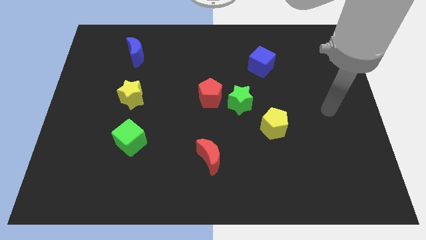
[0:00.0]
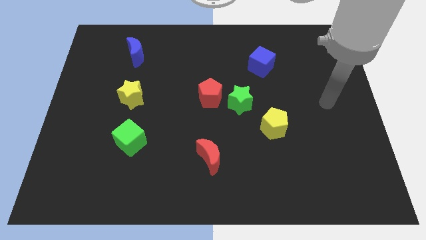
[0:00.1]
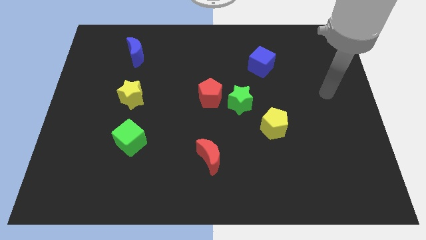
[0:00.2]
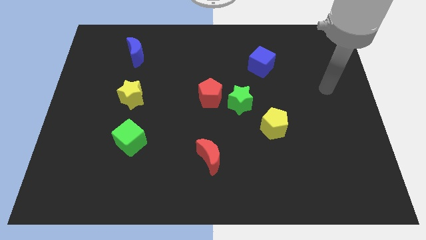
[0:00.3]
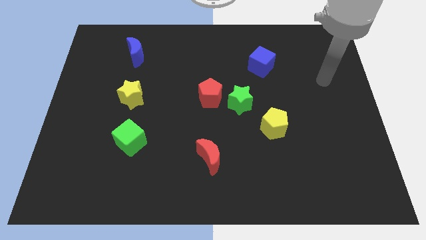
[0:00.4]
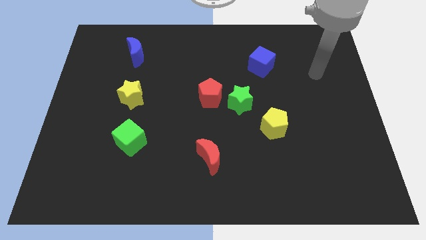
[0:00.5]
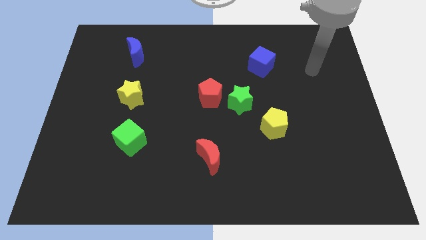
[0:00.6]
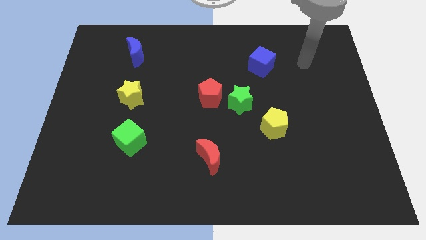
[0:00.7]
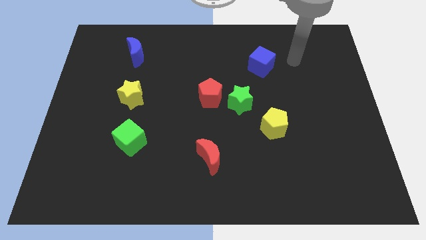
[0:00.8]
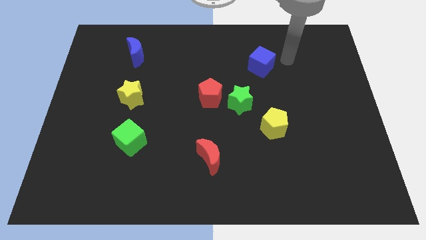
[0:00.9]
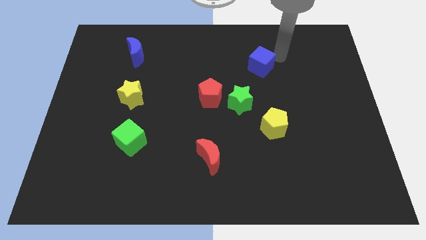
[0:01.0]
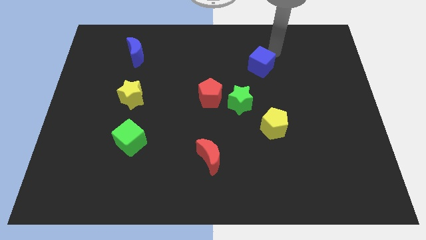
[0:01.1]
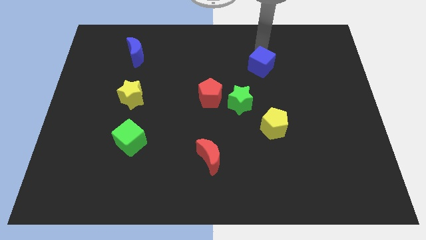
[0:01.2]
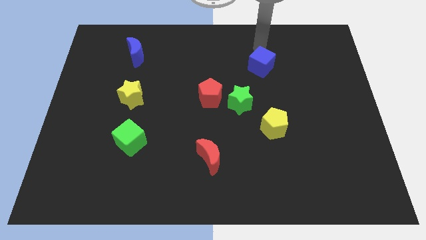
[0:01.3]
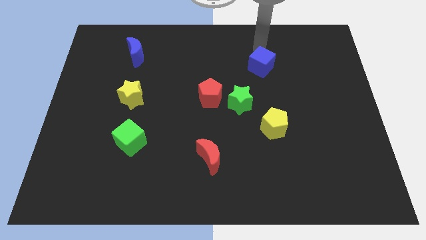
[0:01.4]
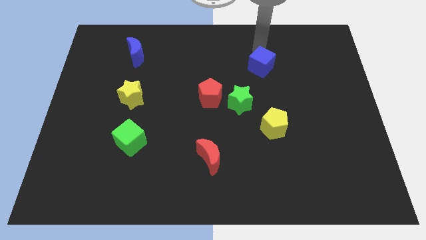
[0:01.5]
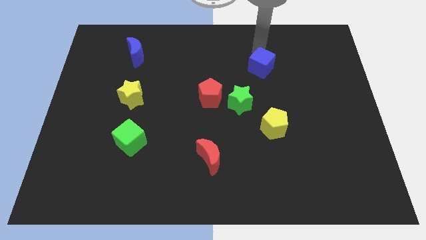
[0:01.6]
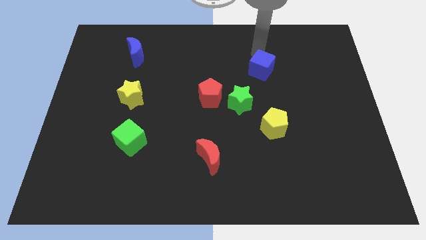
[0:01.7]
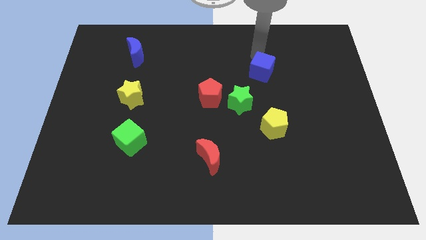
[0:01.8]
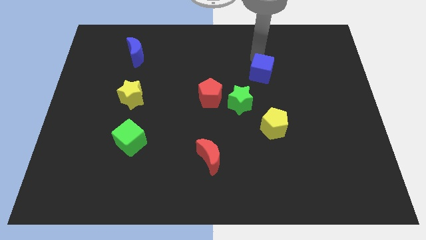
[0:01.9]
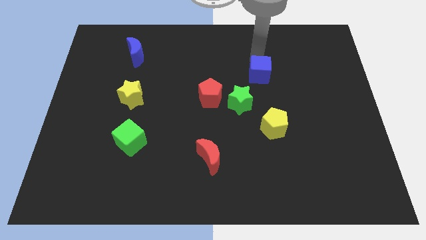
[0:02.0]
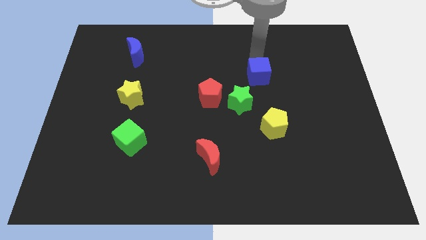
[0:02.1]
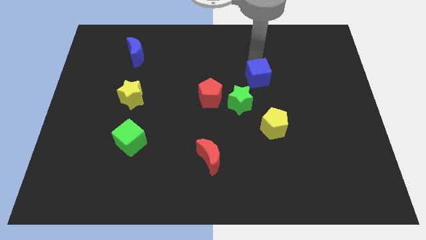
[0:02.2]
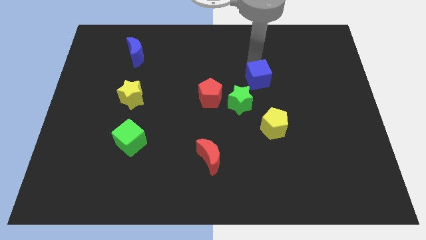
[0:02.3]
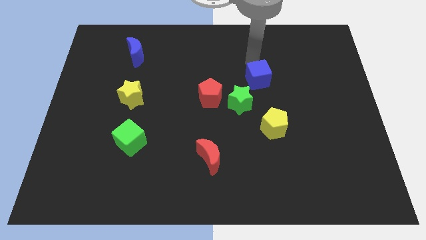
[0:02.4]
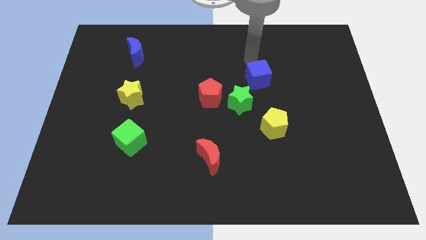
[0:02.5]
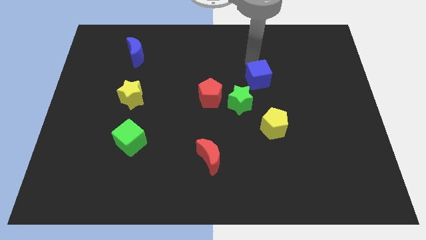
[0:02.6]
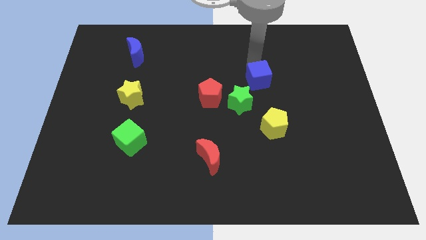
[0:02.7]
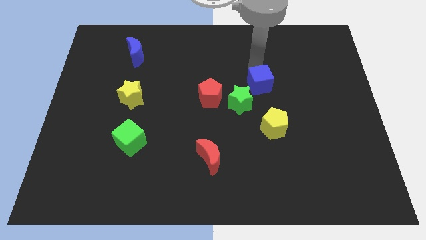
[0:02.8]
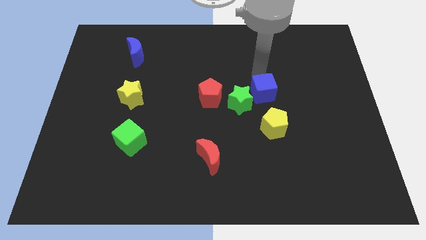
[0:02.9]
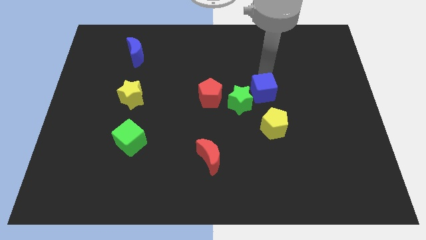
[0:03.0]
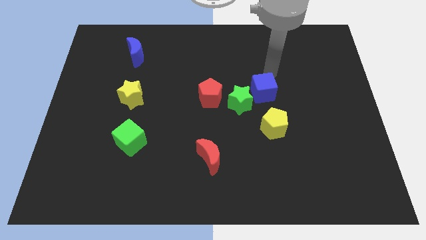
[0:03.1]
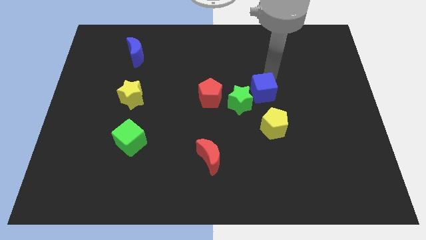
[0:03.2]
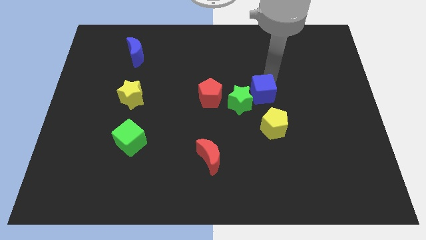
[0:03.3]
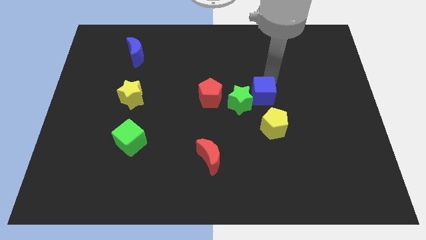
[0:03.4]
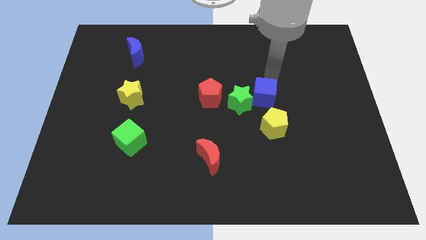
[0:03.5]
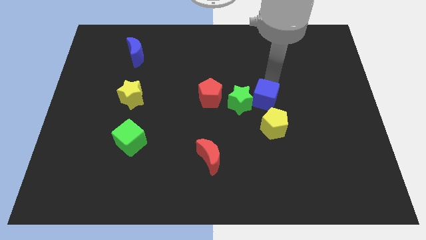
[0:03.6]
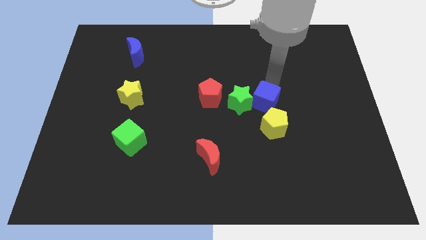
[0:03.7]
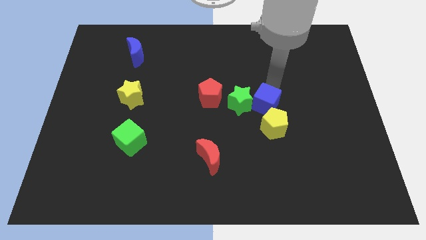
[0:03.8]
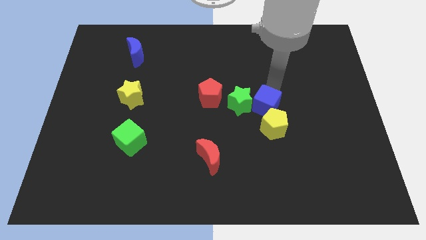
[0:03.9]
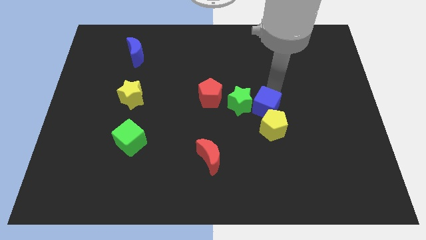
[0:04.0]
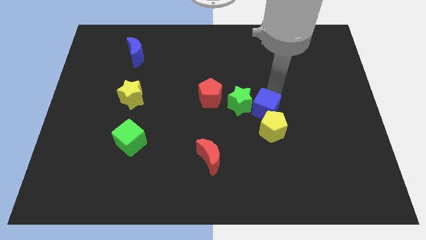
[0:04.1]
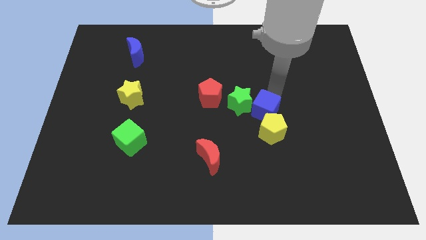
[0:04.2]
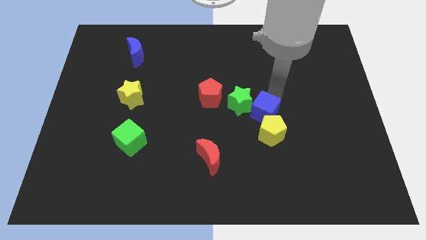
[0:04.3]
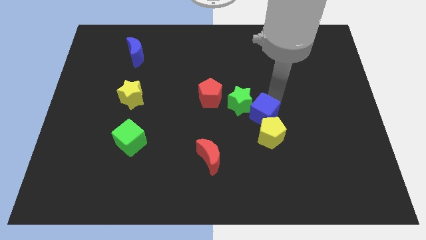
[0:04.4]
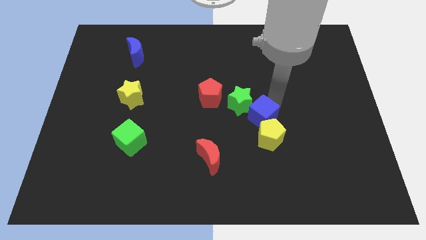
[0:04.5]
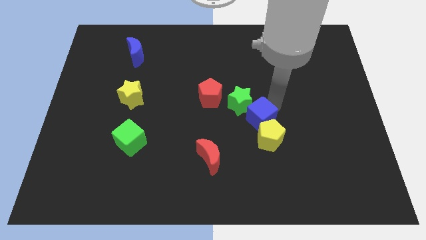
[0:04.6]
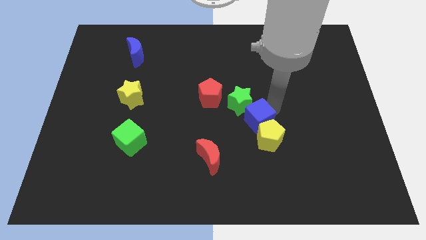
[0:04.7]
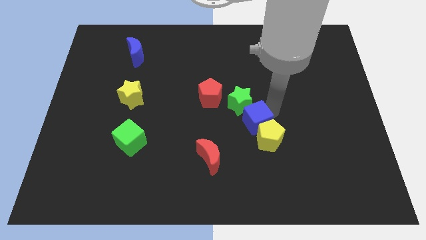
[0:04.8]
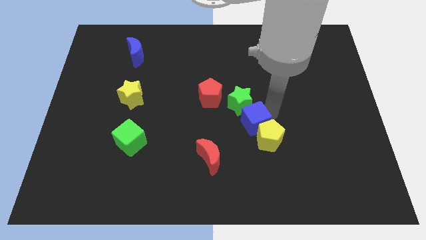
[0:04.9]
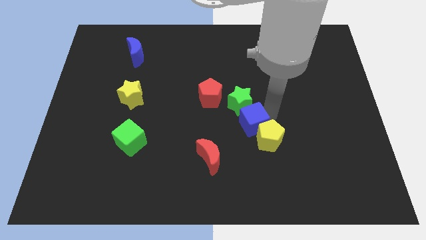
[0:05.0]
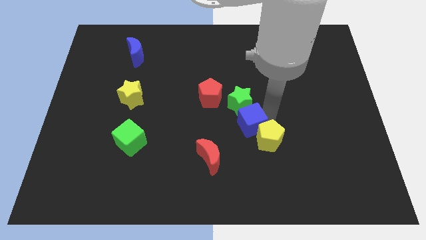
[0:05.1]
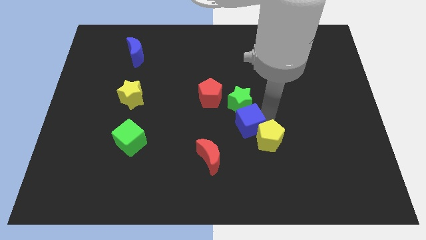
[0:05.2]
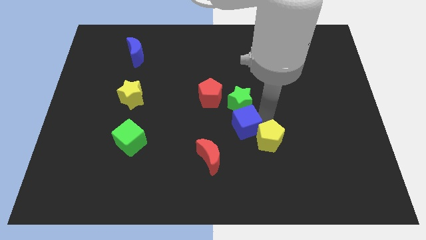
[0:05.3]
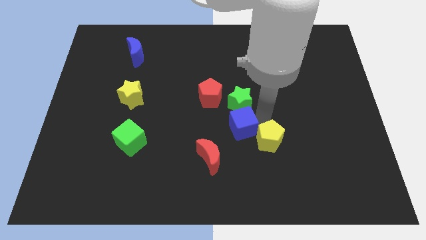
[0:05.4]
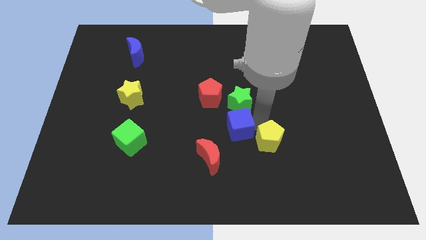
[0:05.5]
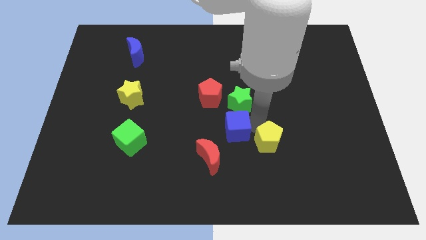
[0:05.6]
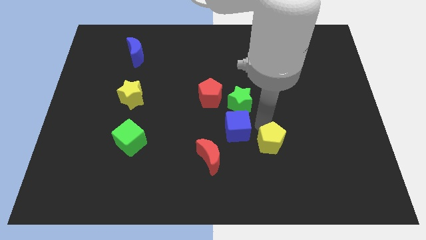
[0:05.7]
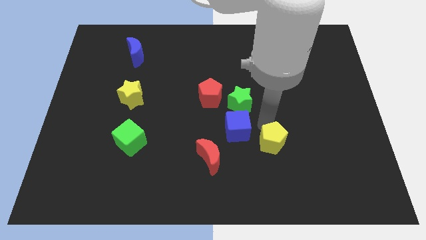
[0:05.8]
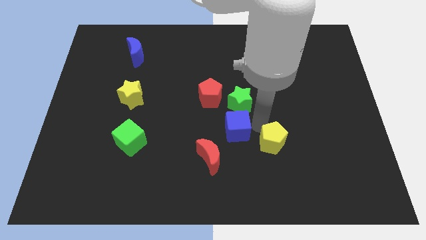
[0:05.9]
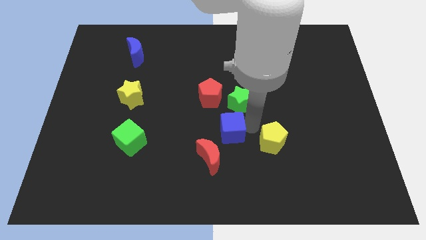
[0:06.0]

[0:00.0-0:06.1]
slide the blue cube below the red pentagon

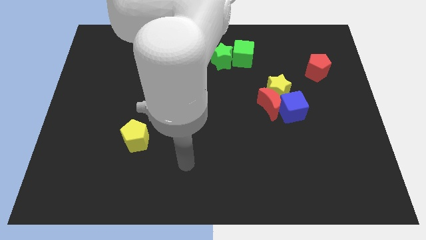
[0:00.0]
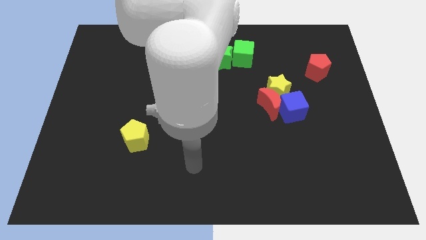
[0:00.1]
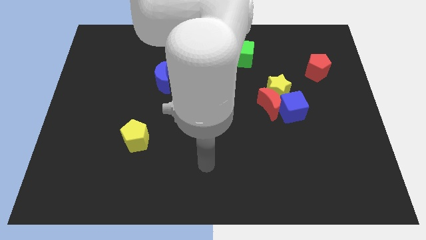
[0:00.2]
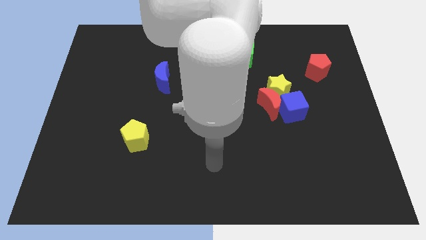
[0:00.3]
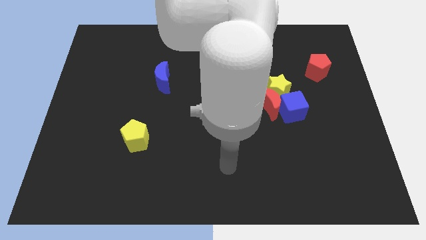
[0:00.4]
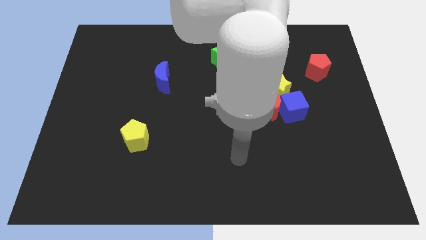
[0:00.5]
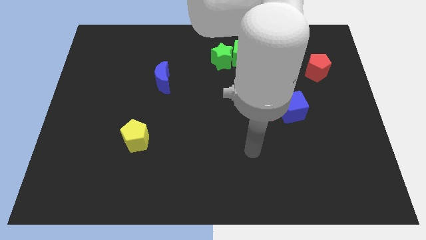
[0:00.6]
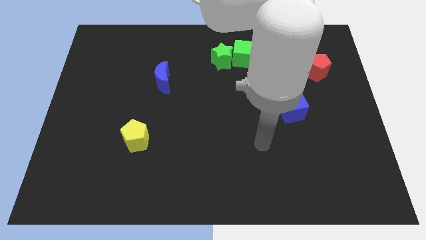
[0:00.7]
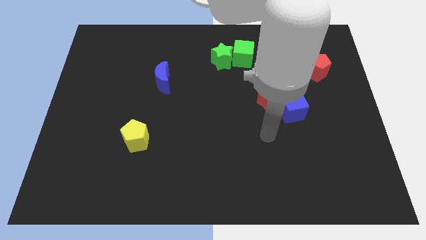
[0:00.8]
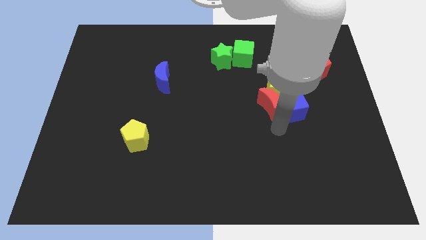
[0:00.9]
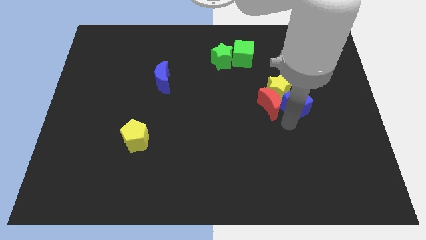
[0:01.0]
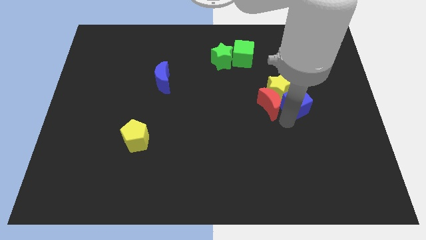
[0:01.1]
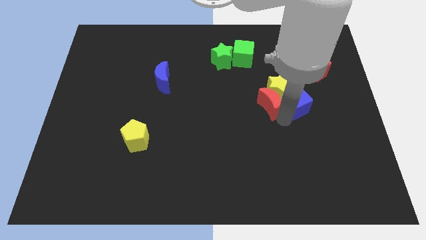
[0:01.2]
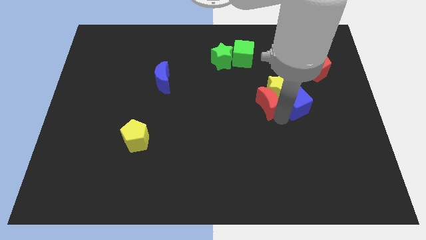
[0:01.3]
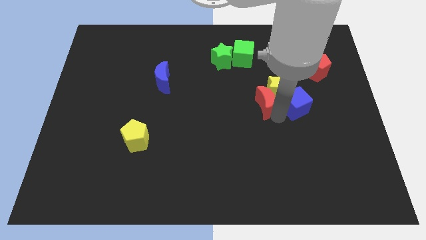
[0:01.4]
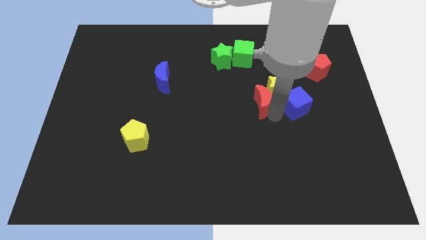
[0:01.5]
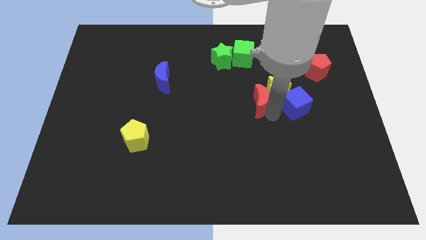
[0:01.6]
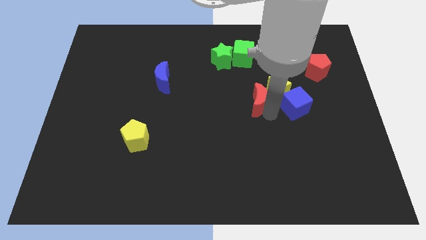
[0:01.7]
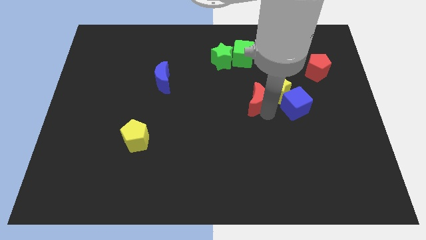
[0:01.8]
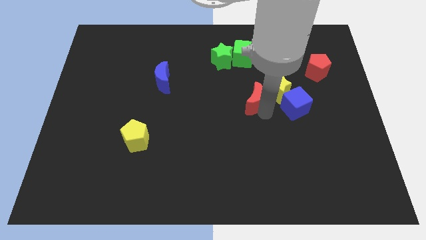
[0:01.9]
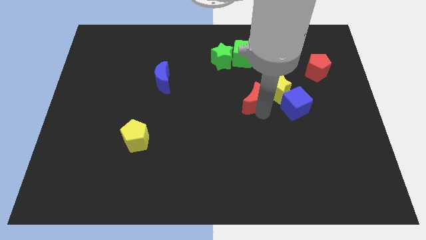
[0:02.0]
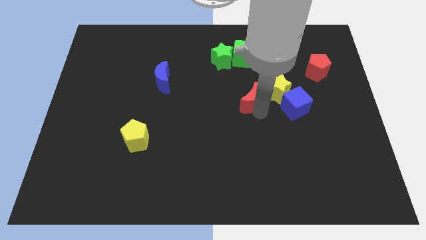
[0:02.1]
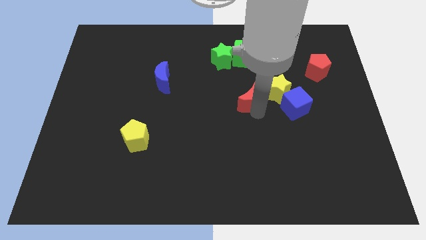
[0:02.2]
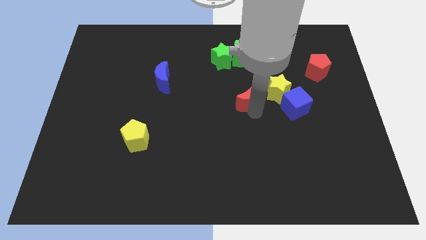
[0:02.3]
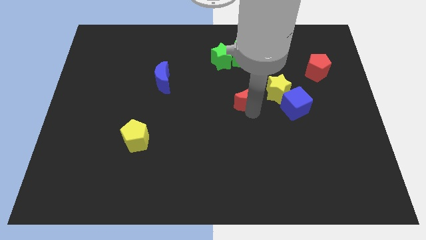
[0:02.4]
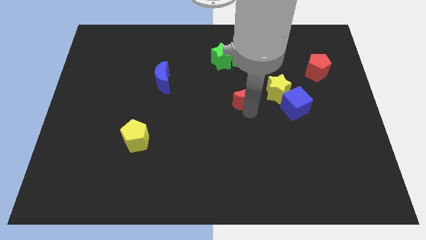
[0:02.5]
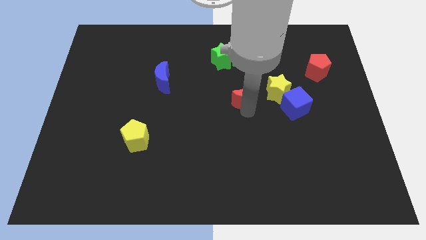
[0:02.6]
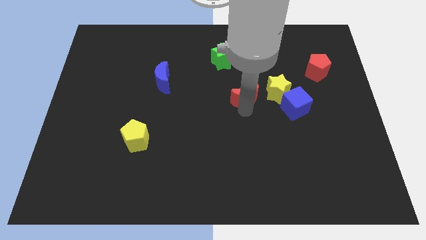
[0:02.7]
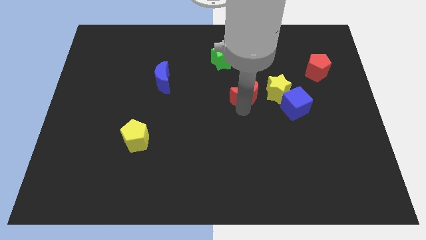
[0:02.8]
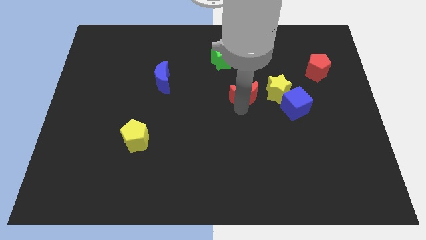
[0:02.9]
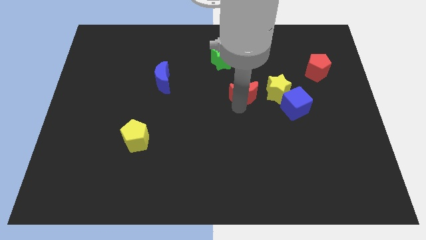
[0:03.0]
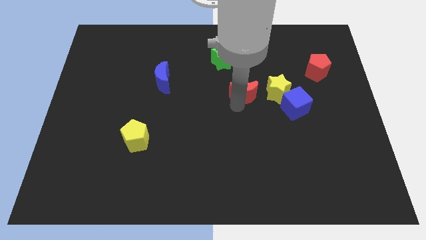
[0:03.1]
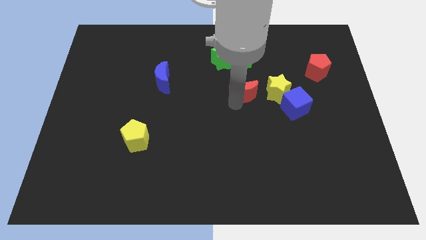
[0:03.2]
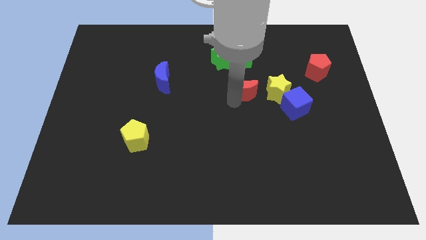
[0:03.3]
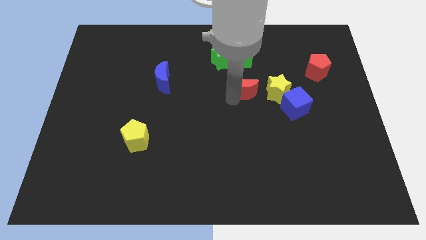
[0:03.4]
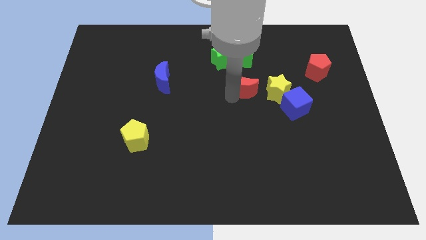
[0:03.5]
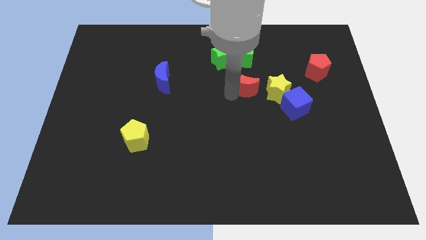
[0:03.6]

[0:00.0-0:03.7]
push the red moon to the top left side of the yellow star
